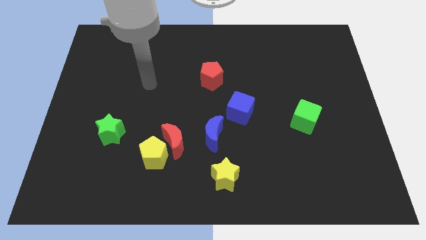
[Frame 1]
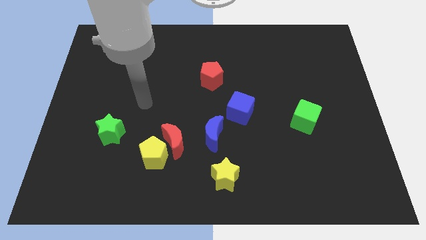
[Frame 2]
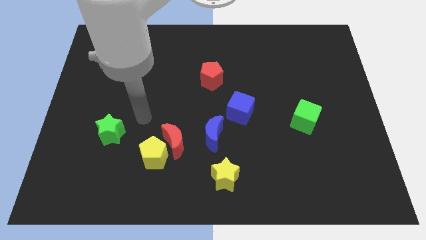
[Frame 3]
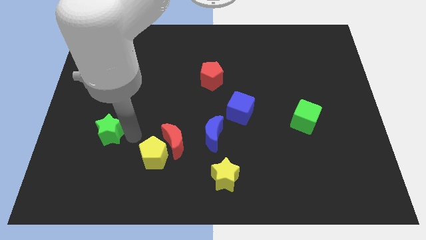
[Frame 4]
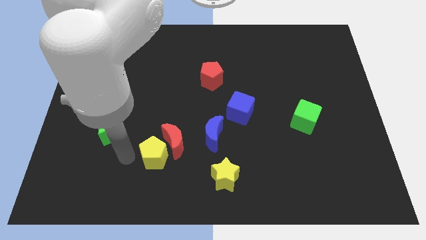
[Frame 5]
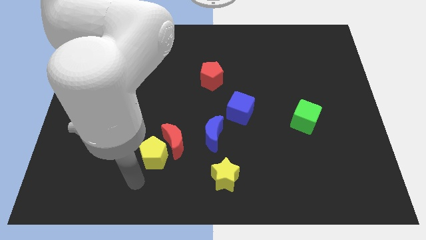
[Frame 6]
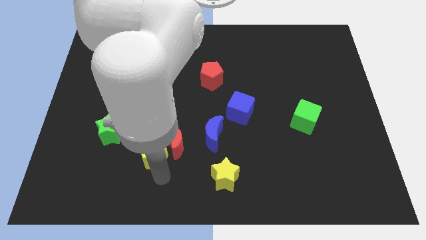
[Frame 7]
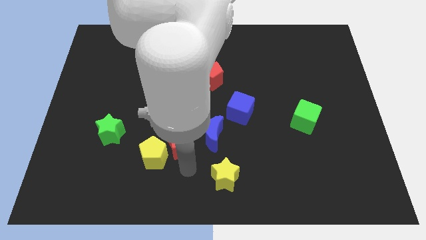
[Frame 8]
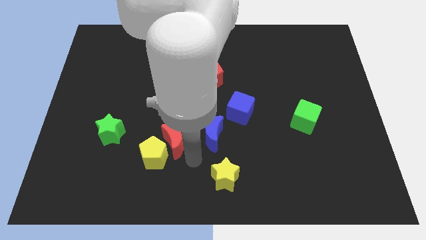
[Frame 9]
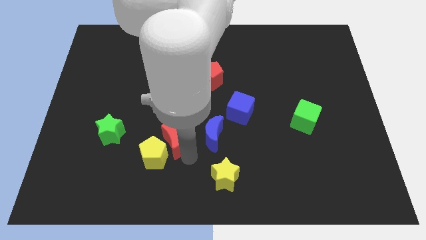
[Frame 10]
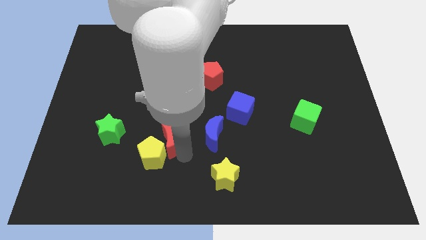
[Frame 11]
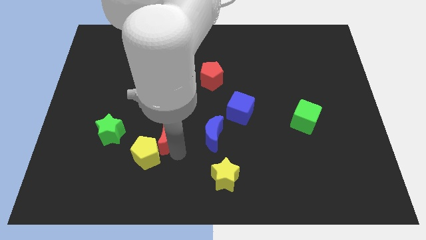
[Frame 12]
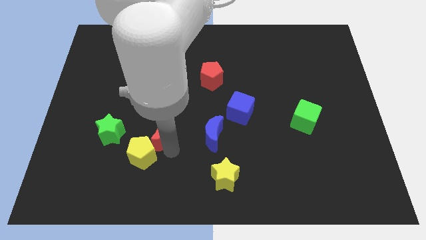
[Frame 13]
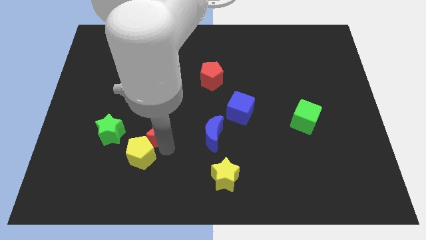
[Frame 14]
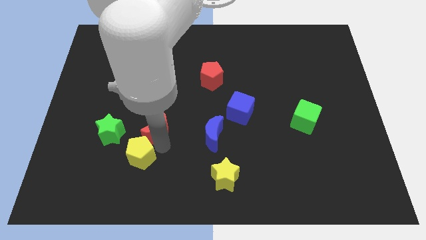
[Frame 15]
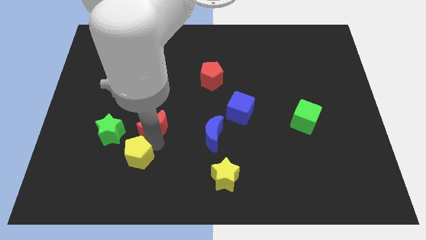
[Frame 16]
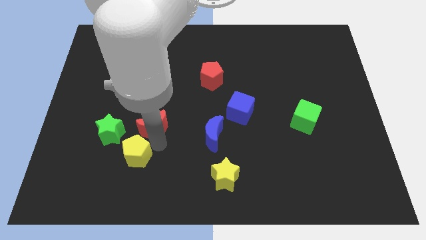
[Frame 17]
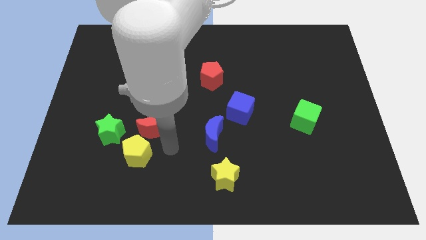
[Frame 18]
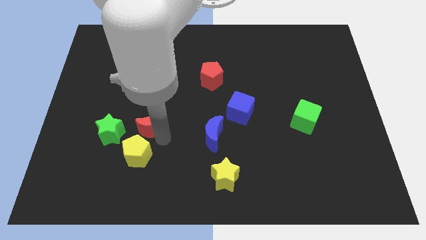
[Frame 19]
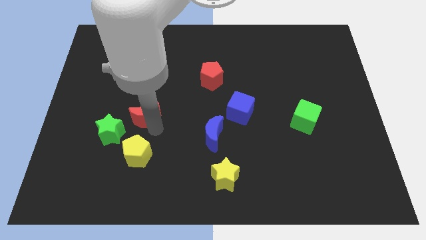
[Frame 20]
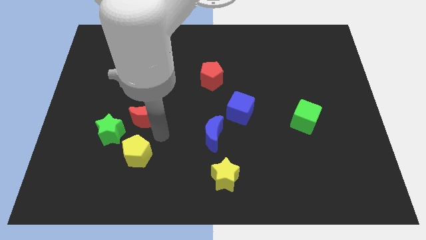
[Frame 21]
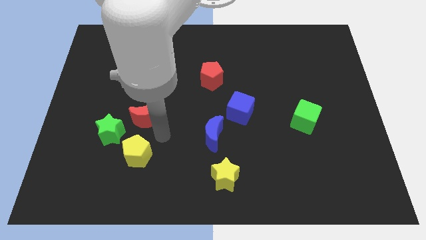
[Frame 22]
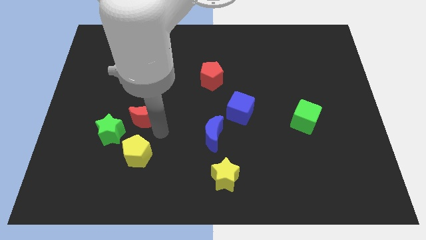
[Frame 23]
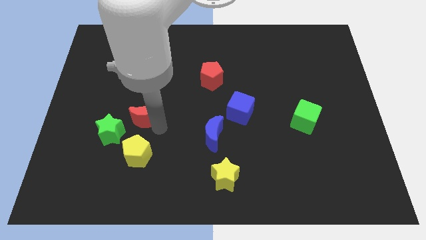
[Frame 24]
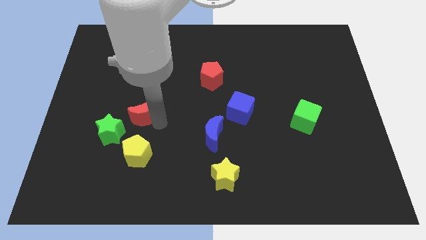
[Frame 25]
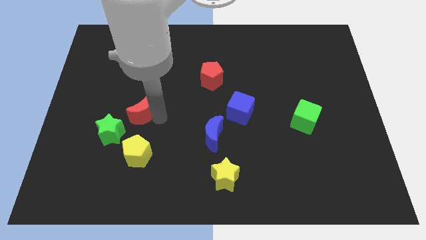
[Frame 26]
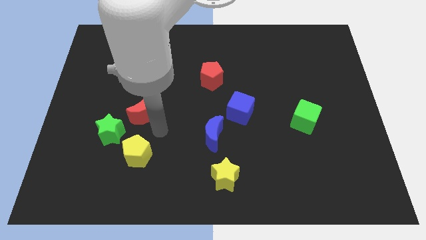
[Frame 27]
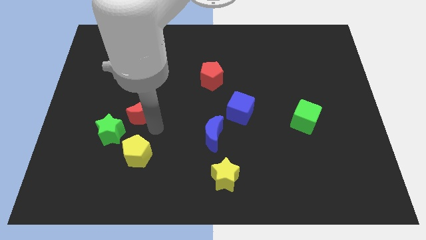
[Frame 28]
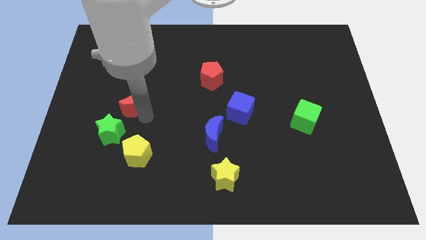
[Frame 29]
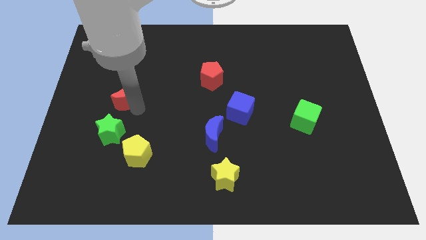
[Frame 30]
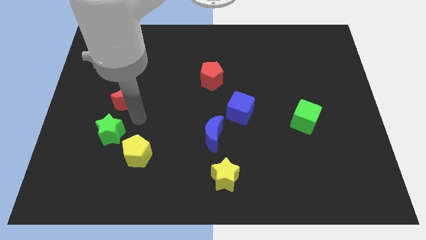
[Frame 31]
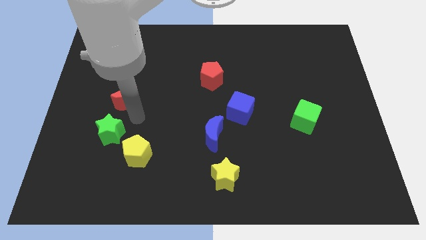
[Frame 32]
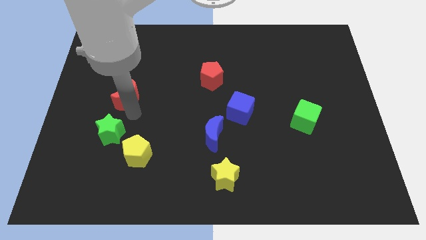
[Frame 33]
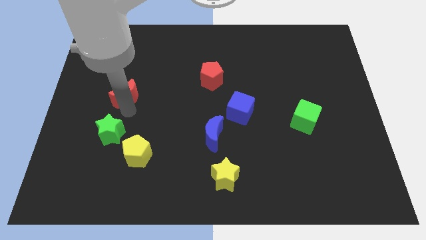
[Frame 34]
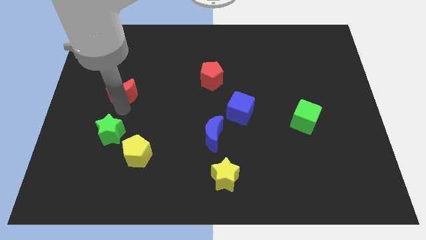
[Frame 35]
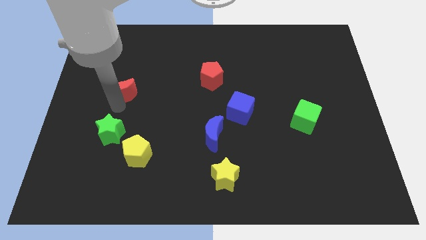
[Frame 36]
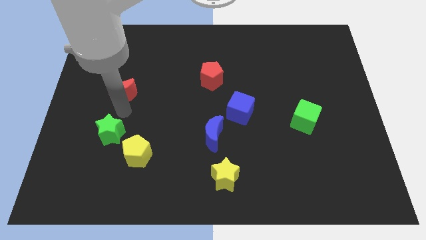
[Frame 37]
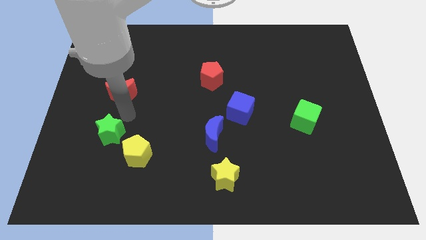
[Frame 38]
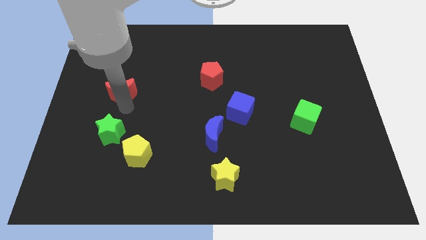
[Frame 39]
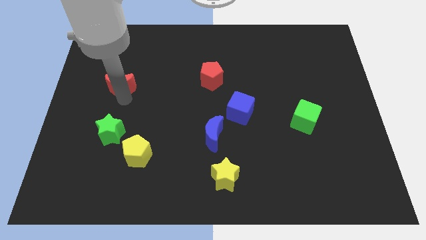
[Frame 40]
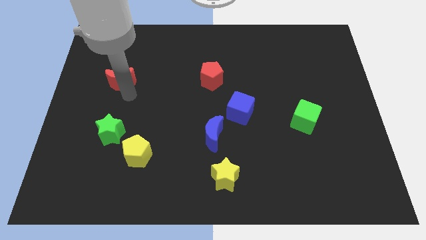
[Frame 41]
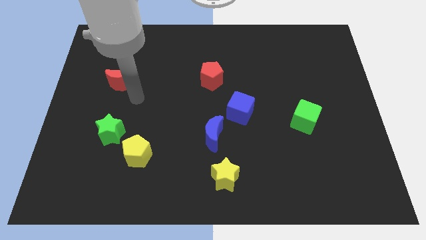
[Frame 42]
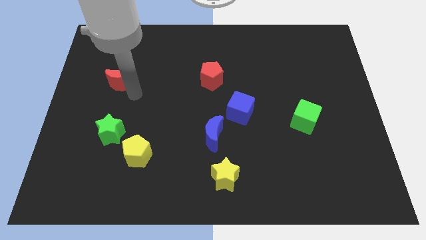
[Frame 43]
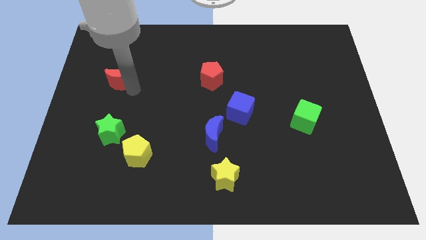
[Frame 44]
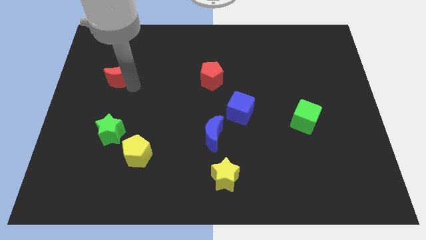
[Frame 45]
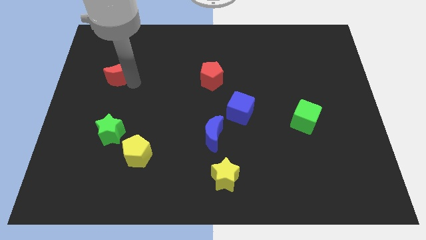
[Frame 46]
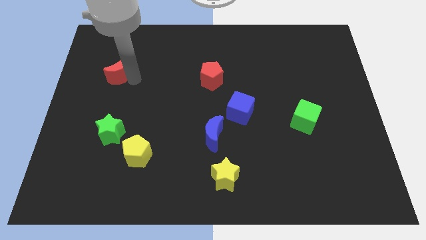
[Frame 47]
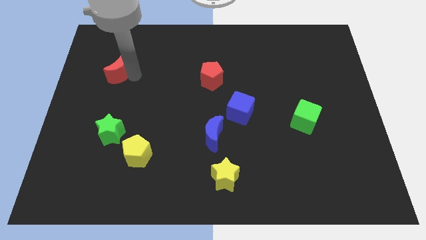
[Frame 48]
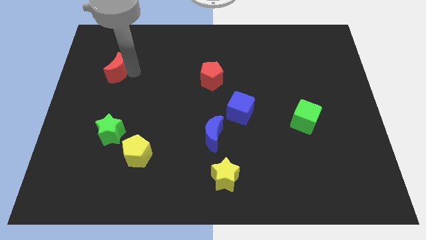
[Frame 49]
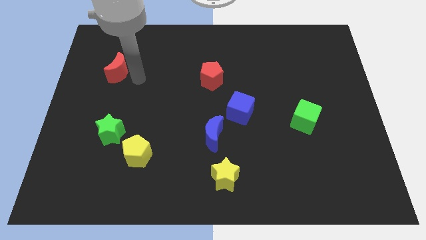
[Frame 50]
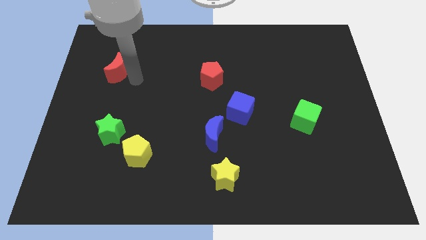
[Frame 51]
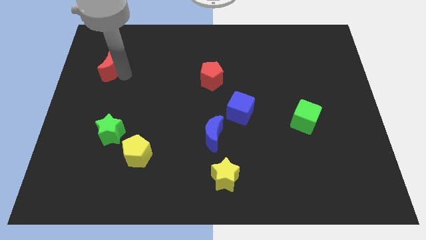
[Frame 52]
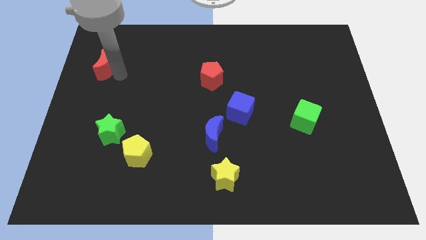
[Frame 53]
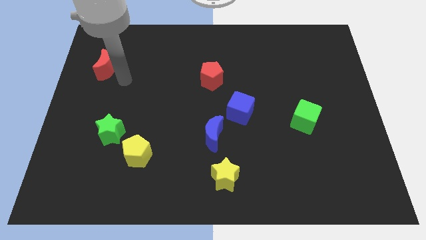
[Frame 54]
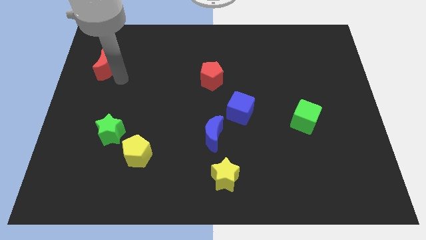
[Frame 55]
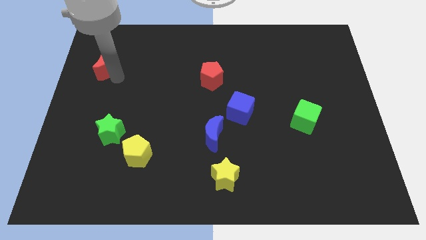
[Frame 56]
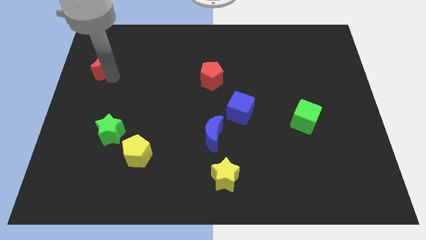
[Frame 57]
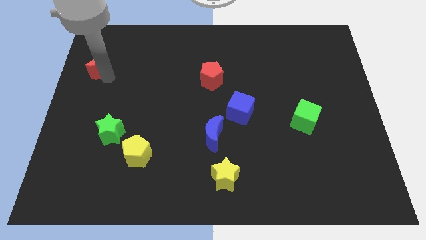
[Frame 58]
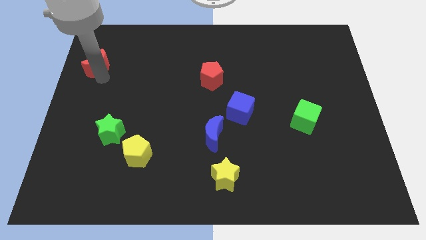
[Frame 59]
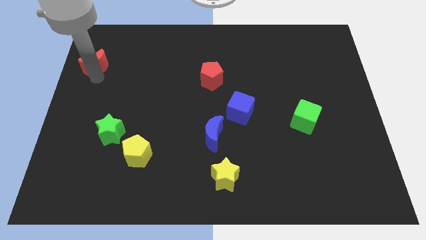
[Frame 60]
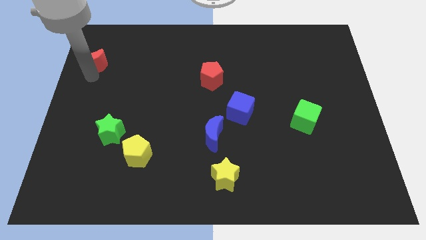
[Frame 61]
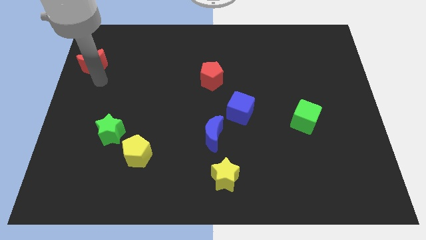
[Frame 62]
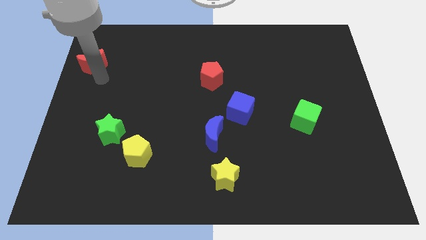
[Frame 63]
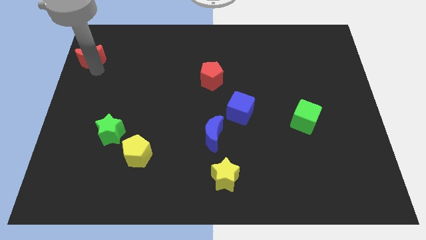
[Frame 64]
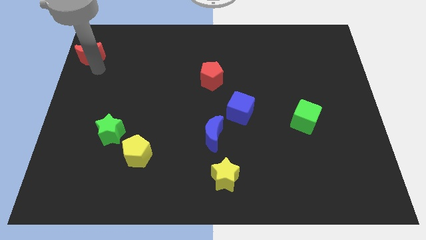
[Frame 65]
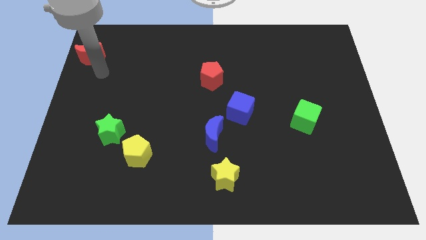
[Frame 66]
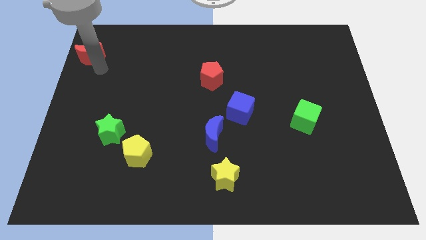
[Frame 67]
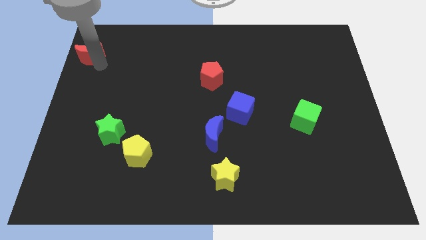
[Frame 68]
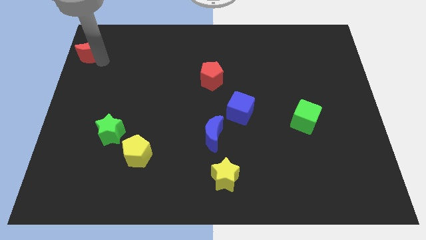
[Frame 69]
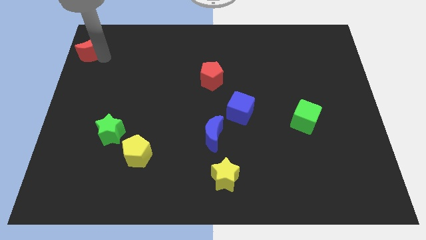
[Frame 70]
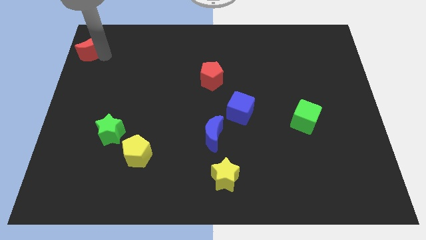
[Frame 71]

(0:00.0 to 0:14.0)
put the red moon to the top left
